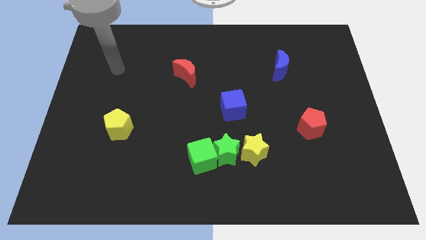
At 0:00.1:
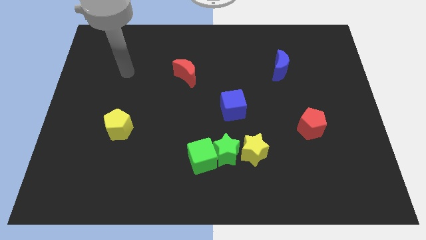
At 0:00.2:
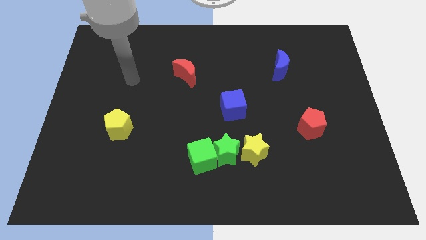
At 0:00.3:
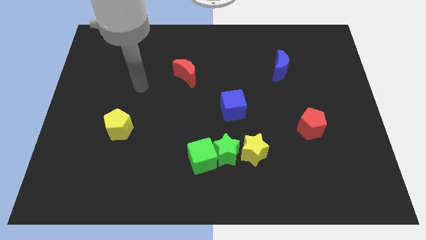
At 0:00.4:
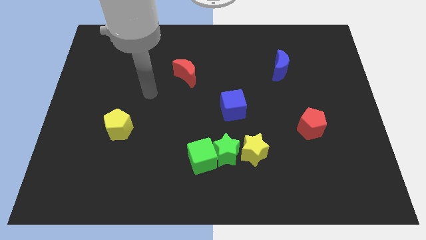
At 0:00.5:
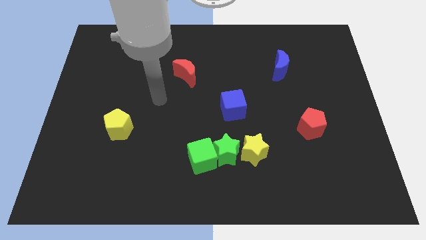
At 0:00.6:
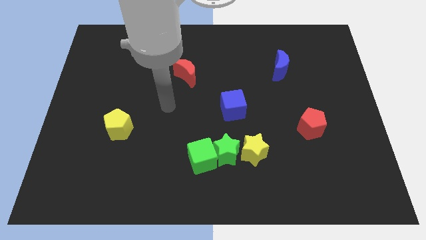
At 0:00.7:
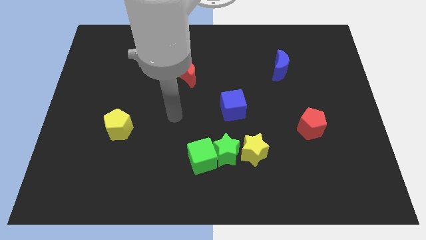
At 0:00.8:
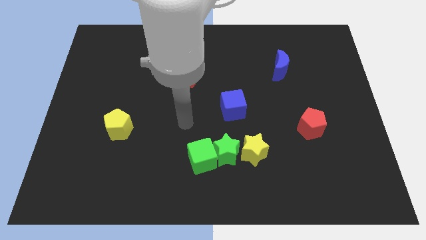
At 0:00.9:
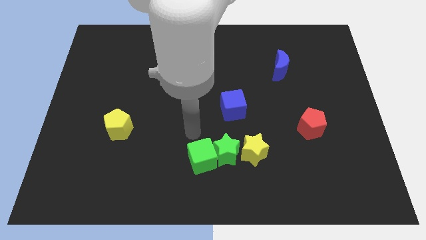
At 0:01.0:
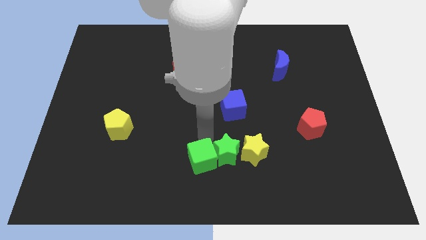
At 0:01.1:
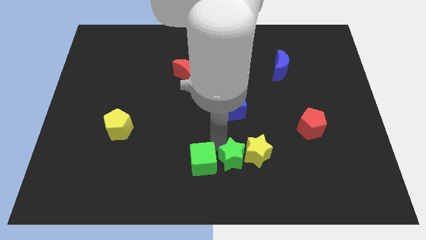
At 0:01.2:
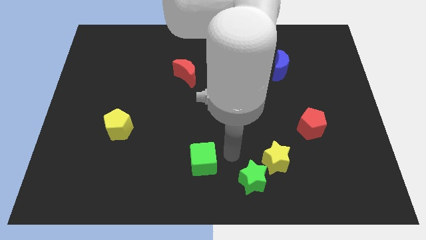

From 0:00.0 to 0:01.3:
move the green cube away from the green star

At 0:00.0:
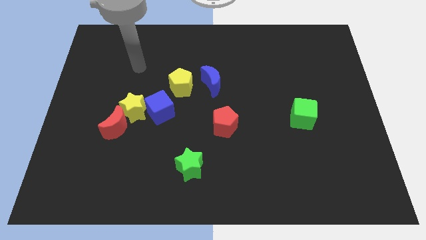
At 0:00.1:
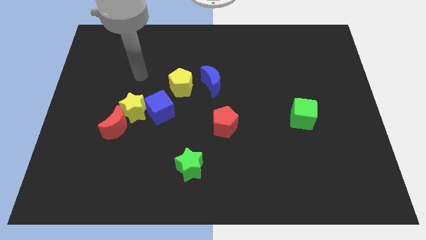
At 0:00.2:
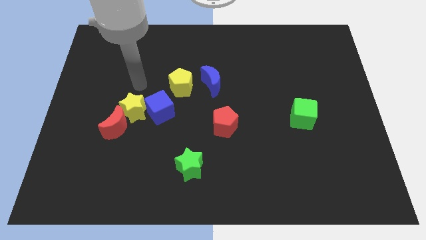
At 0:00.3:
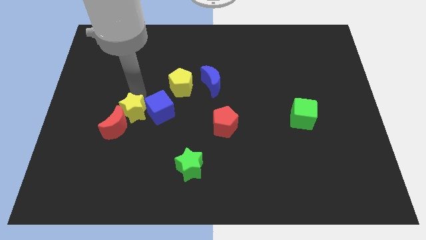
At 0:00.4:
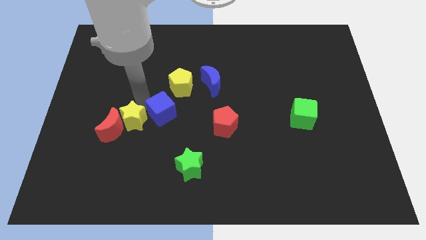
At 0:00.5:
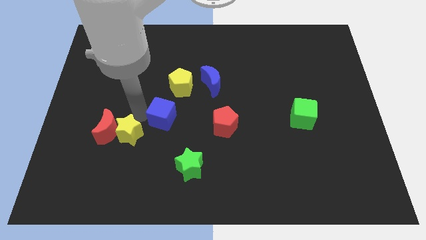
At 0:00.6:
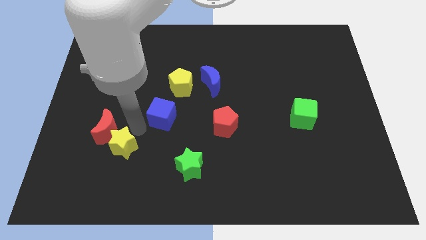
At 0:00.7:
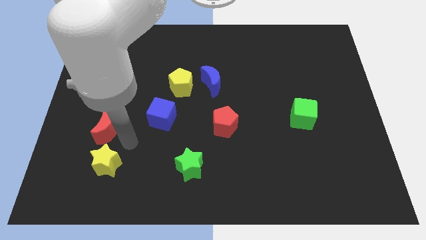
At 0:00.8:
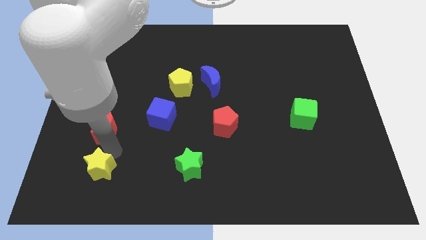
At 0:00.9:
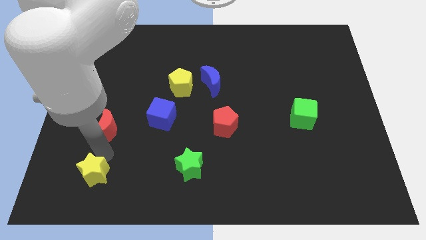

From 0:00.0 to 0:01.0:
separate the red moon from the yellow star

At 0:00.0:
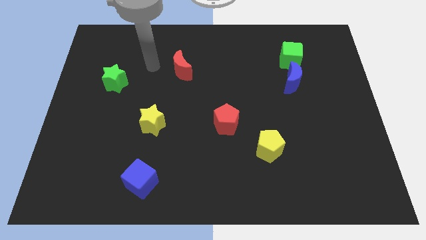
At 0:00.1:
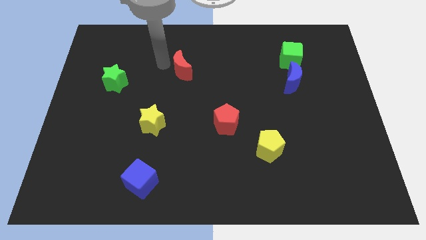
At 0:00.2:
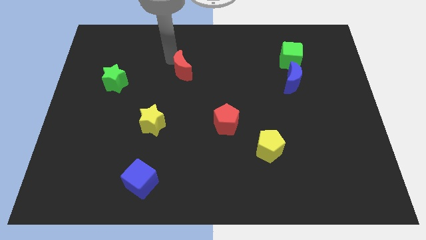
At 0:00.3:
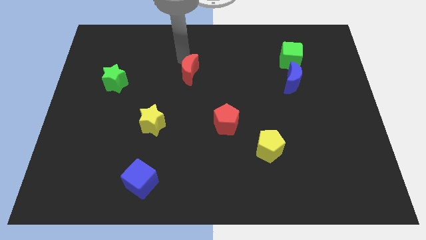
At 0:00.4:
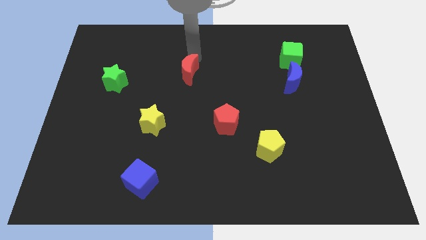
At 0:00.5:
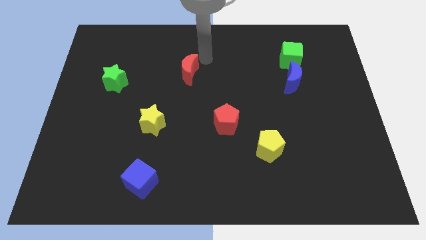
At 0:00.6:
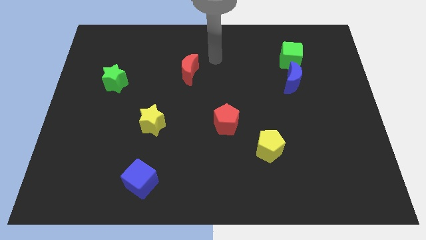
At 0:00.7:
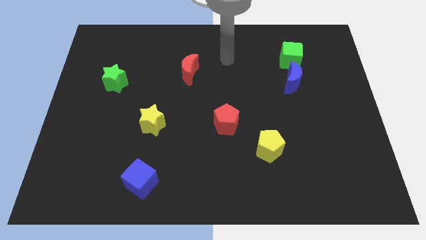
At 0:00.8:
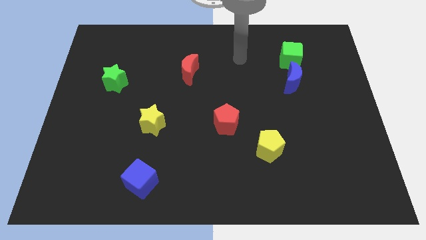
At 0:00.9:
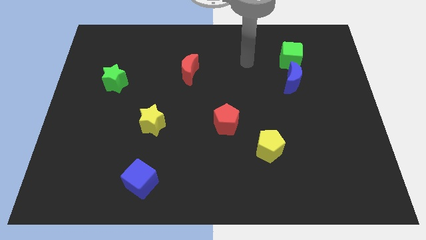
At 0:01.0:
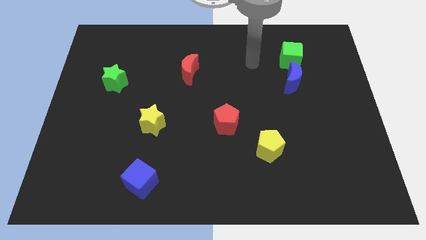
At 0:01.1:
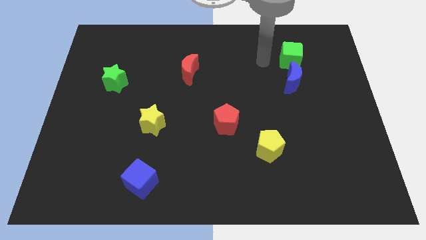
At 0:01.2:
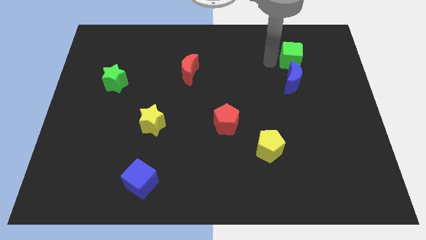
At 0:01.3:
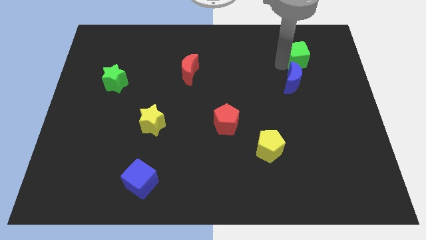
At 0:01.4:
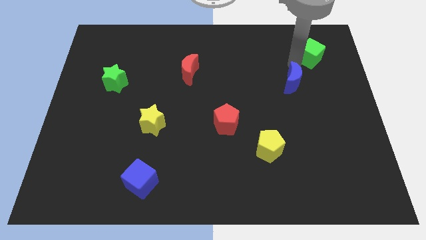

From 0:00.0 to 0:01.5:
move the blue moon away from the green cube

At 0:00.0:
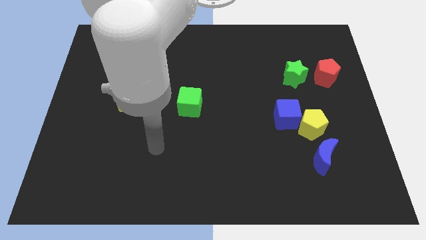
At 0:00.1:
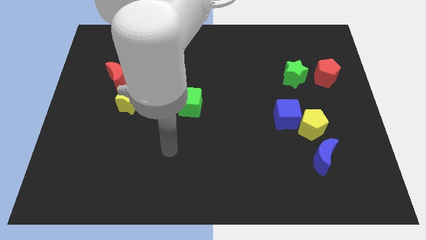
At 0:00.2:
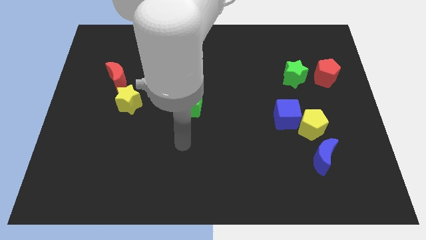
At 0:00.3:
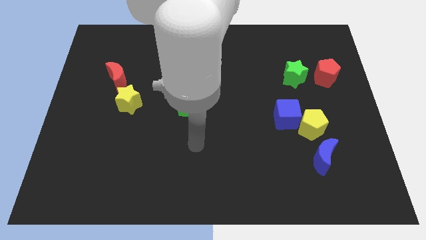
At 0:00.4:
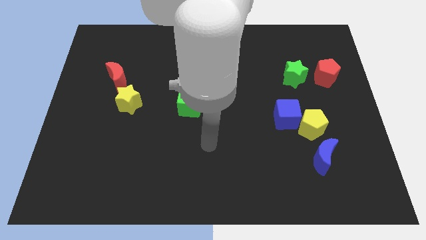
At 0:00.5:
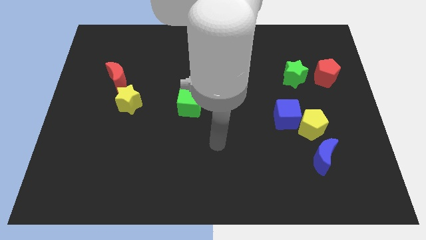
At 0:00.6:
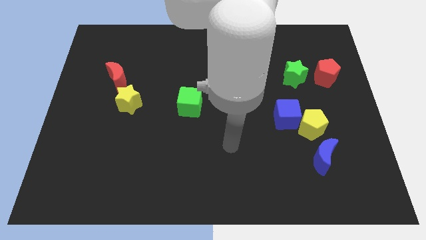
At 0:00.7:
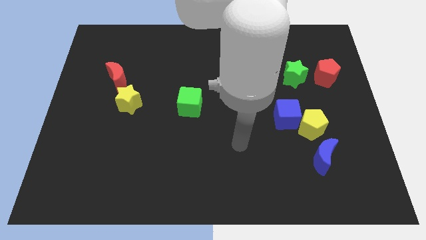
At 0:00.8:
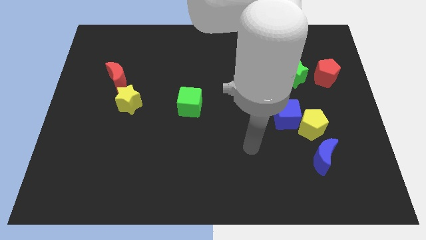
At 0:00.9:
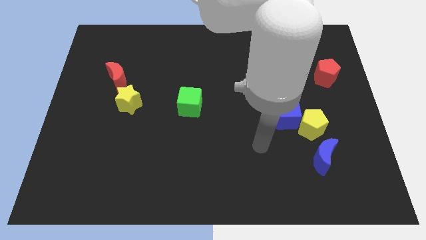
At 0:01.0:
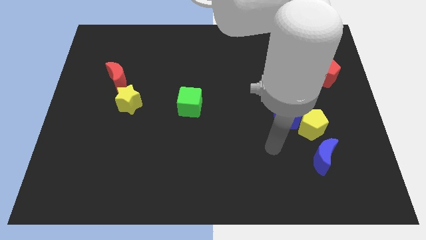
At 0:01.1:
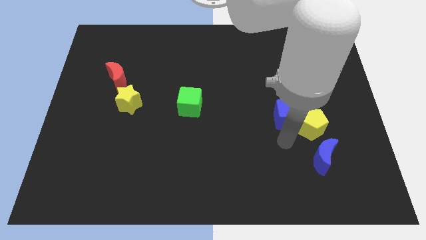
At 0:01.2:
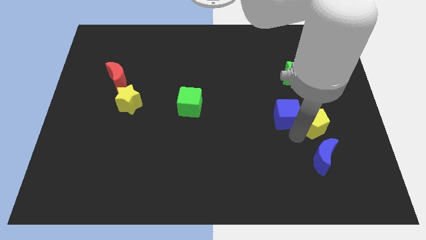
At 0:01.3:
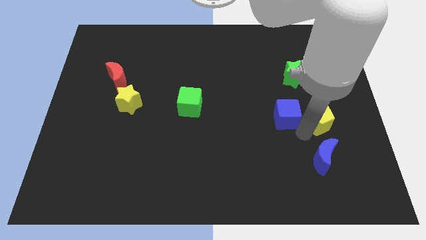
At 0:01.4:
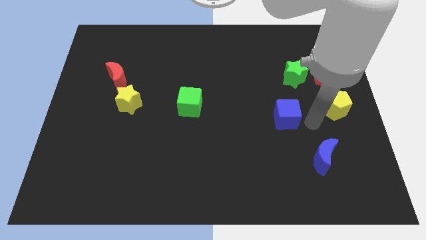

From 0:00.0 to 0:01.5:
separate the blue cube from the yellow pentagon

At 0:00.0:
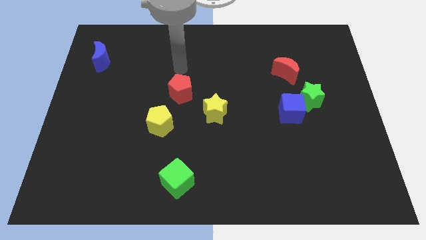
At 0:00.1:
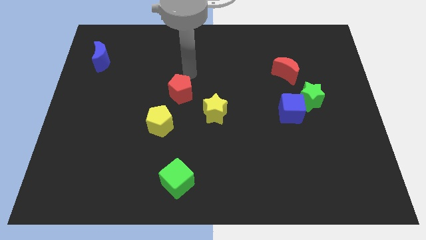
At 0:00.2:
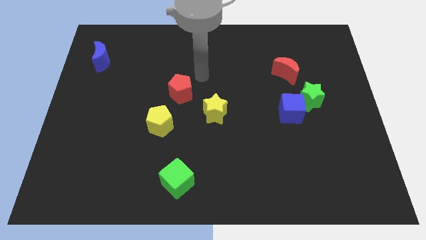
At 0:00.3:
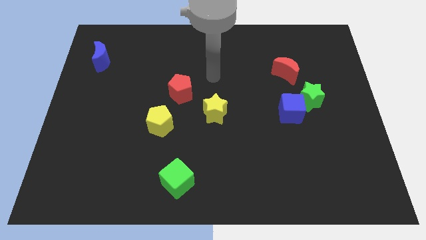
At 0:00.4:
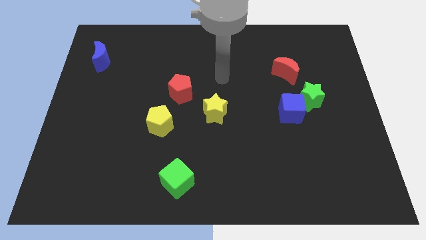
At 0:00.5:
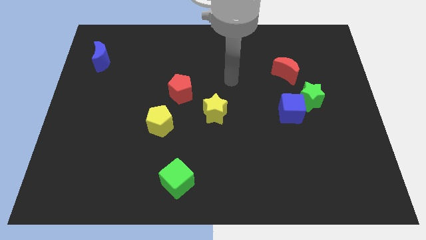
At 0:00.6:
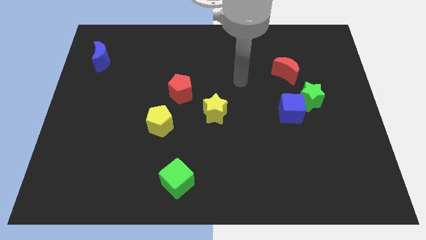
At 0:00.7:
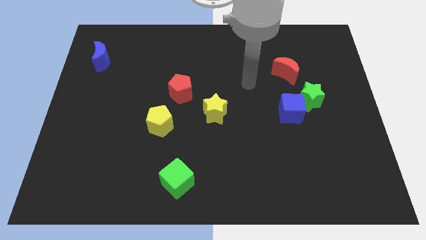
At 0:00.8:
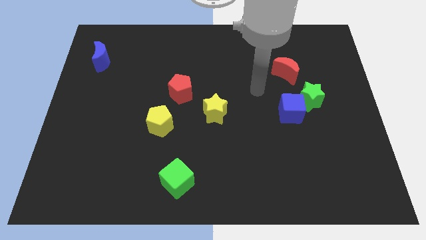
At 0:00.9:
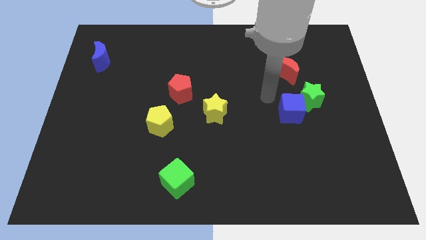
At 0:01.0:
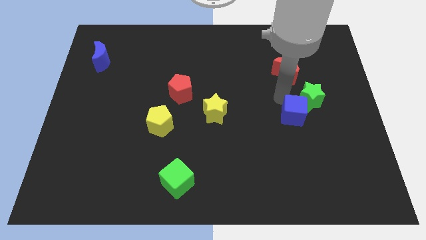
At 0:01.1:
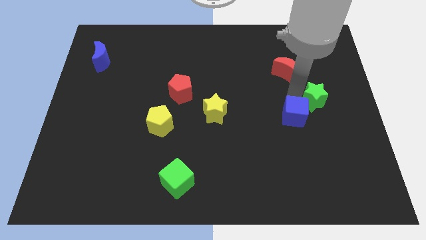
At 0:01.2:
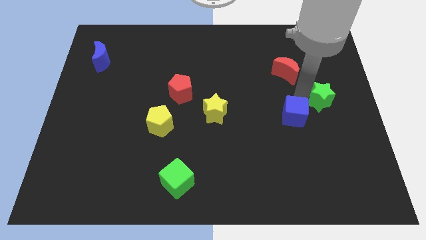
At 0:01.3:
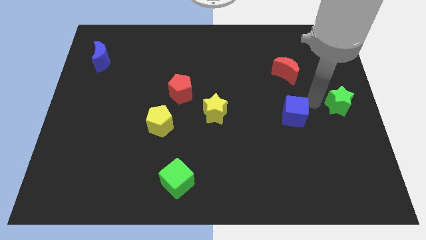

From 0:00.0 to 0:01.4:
pull the blue cube apart from the green star

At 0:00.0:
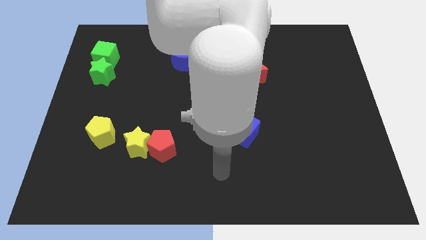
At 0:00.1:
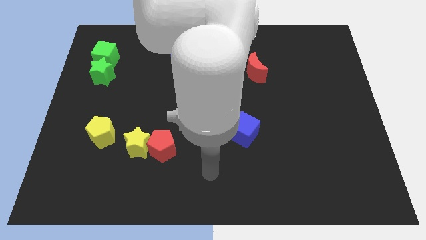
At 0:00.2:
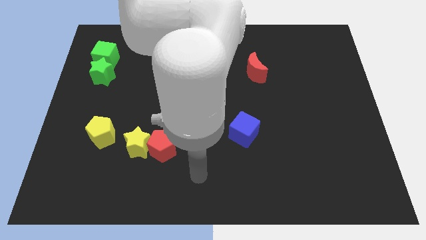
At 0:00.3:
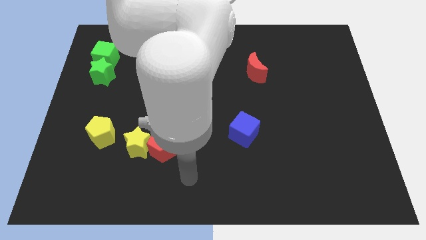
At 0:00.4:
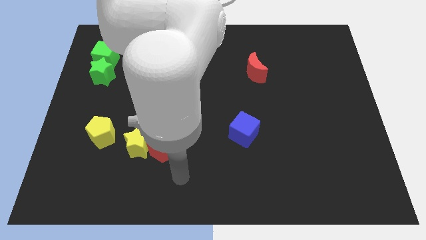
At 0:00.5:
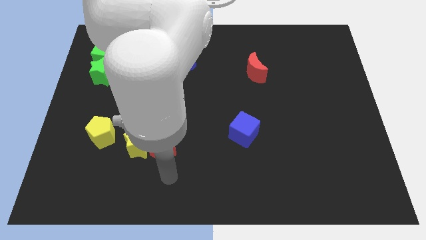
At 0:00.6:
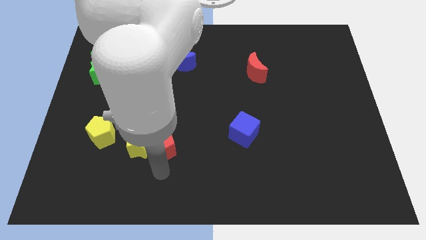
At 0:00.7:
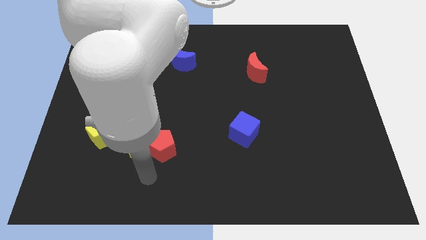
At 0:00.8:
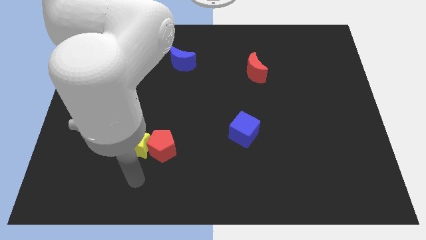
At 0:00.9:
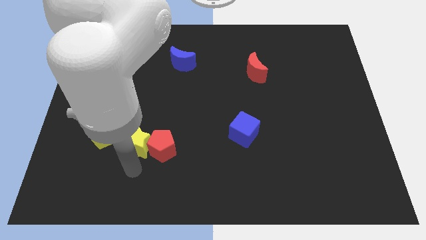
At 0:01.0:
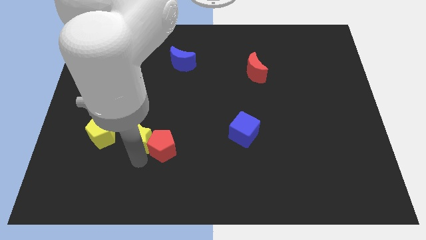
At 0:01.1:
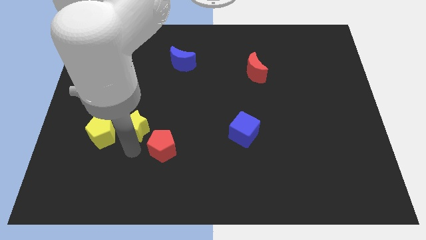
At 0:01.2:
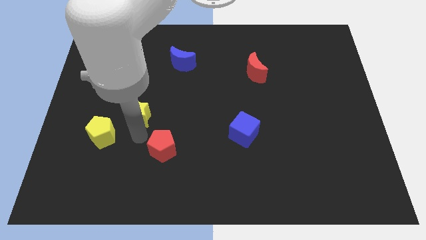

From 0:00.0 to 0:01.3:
separate the red pentagon from the yellow star

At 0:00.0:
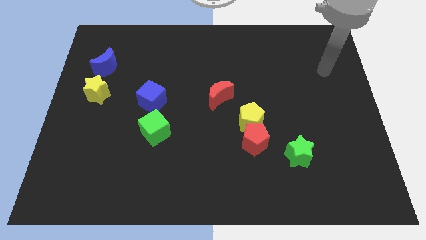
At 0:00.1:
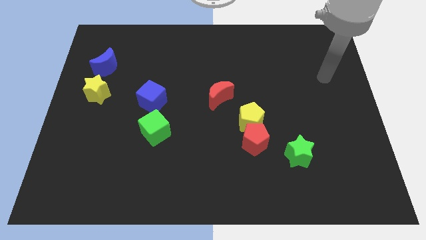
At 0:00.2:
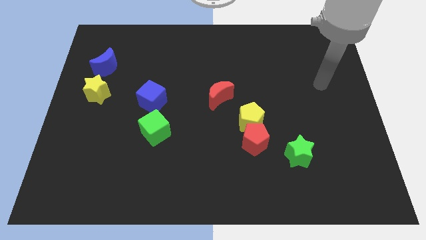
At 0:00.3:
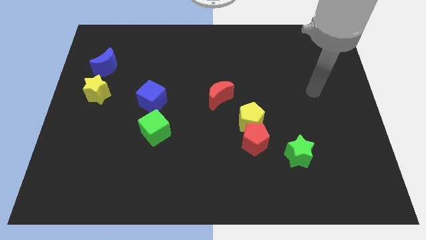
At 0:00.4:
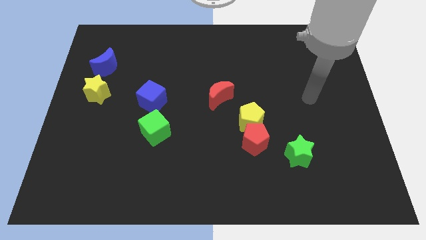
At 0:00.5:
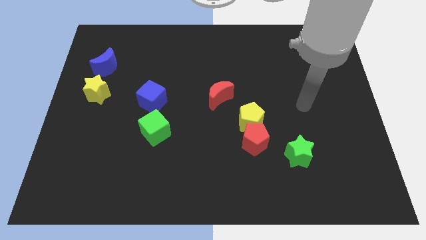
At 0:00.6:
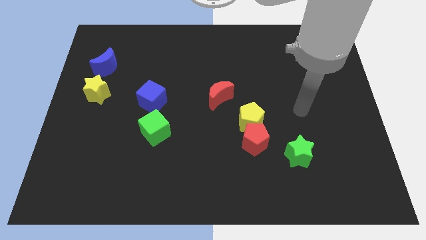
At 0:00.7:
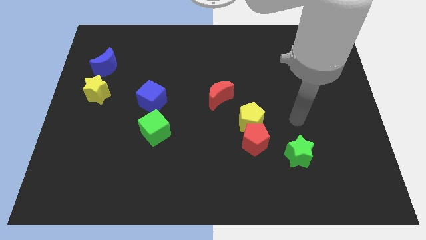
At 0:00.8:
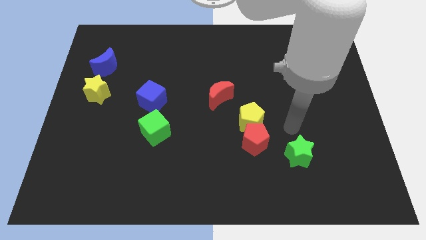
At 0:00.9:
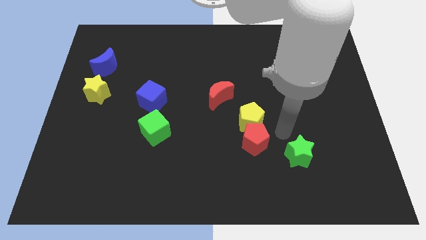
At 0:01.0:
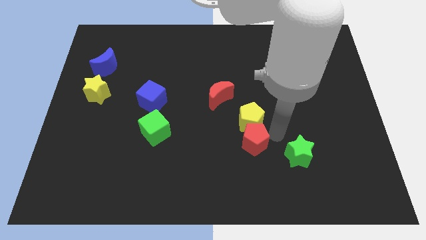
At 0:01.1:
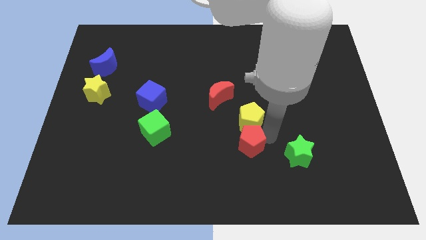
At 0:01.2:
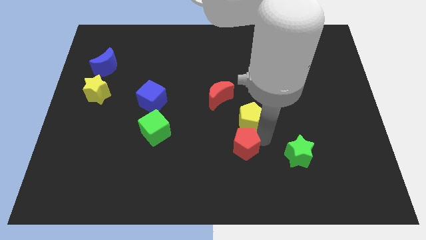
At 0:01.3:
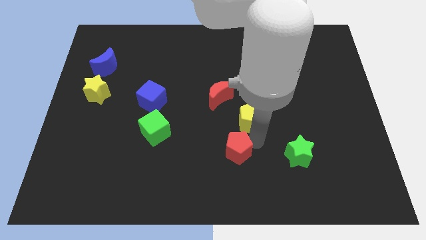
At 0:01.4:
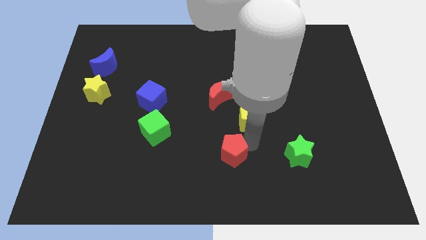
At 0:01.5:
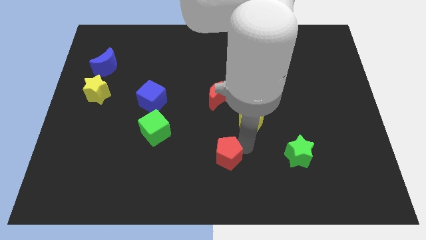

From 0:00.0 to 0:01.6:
pull the red pentagon apart from the yellow pentagon and green star
